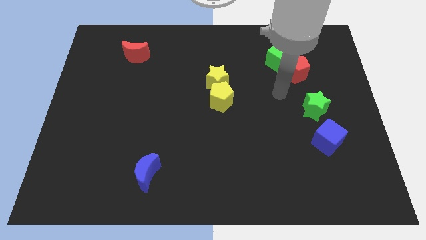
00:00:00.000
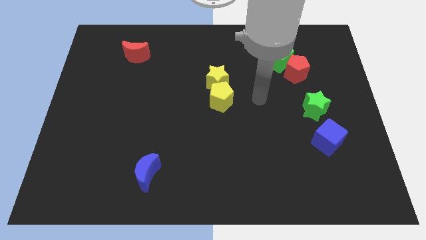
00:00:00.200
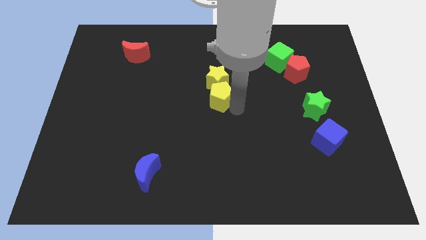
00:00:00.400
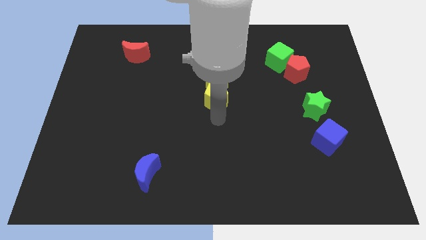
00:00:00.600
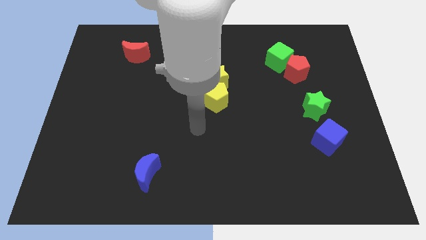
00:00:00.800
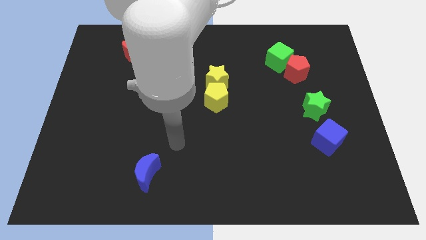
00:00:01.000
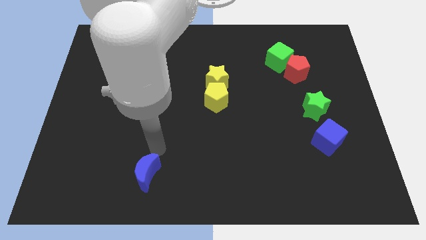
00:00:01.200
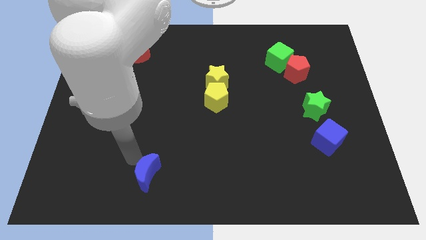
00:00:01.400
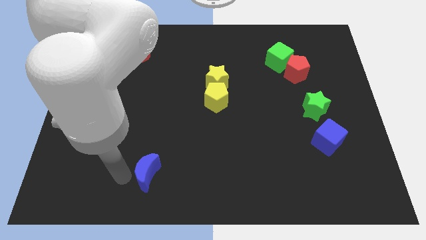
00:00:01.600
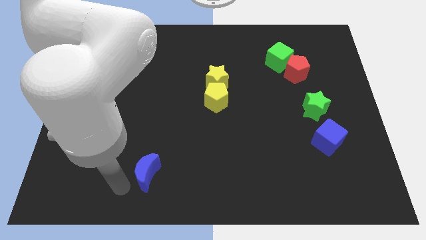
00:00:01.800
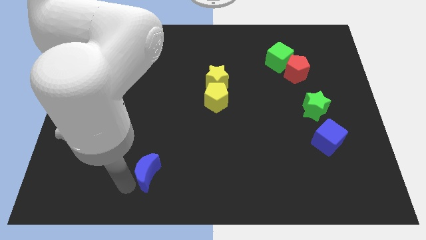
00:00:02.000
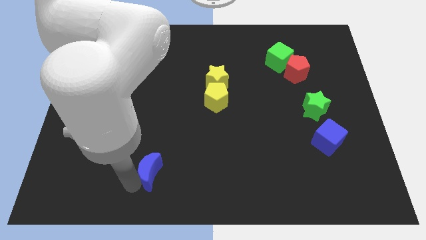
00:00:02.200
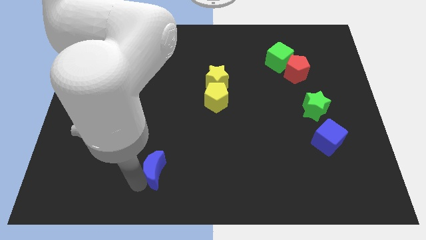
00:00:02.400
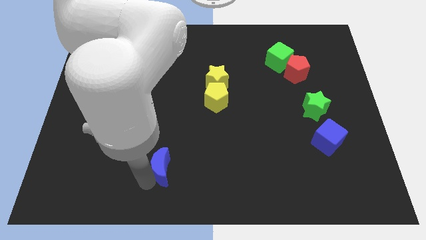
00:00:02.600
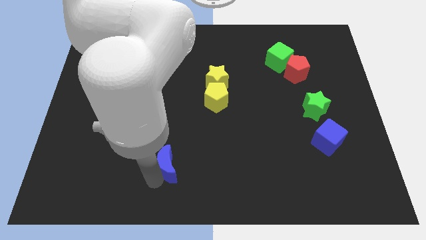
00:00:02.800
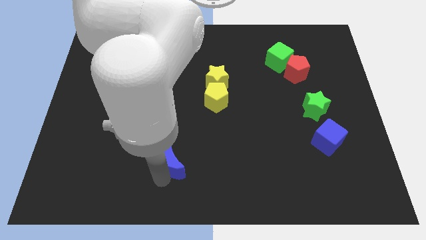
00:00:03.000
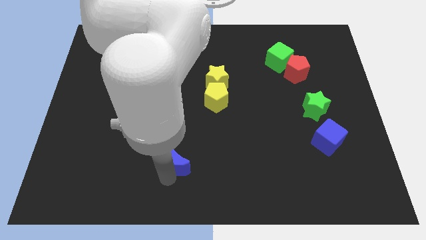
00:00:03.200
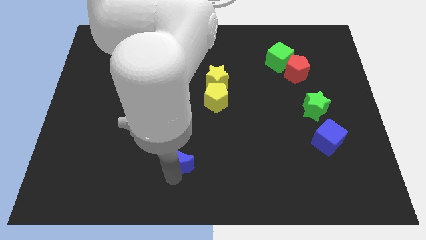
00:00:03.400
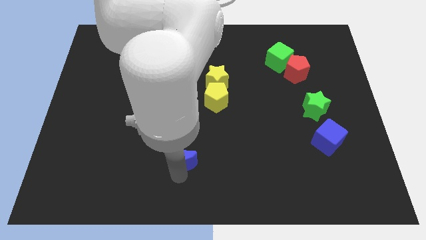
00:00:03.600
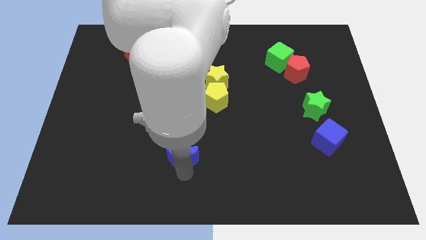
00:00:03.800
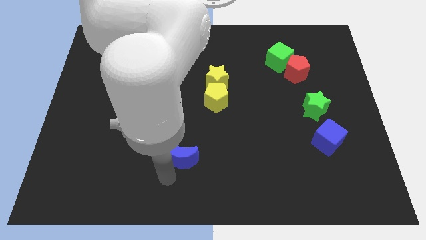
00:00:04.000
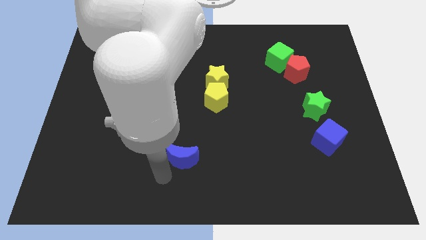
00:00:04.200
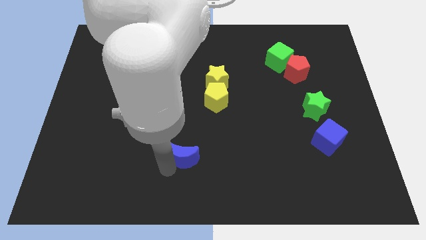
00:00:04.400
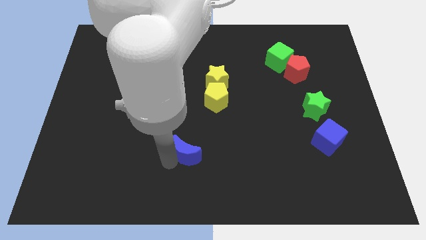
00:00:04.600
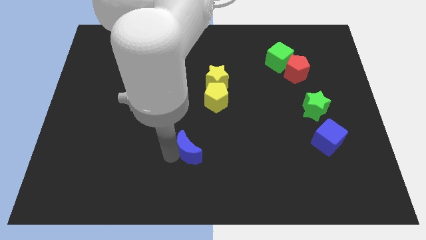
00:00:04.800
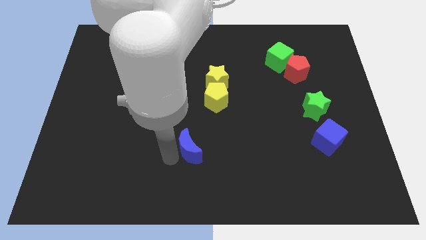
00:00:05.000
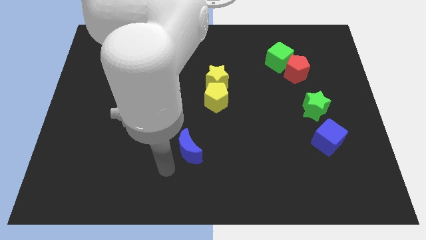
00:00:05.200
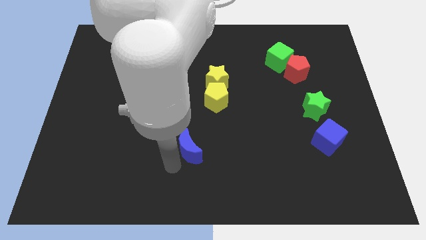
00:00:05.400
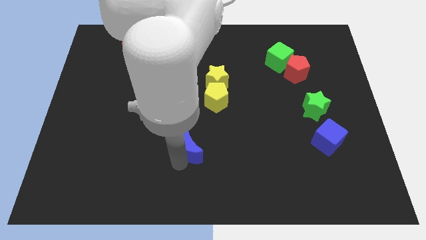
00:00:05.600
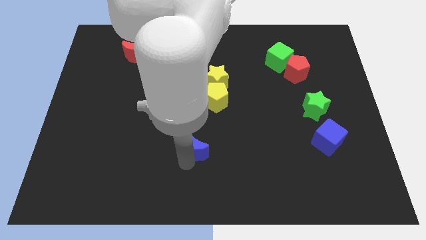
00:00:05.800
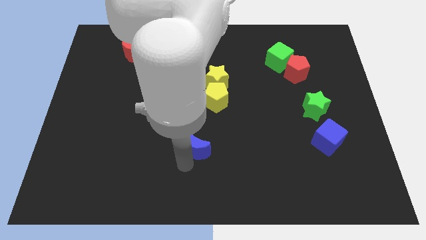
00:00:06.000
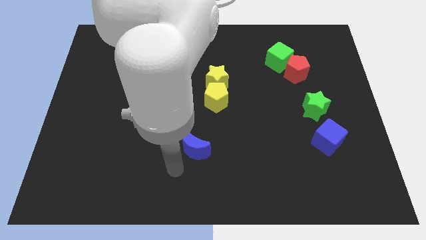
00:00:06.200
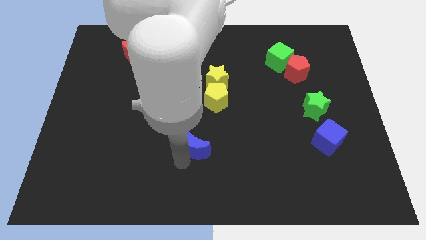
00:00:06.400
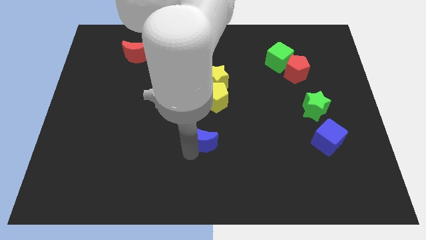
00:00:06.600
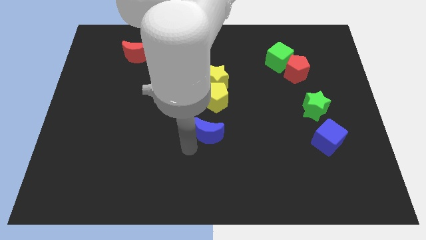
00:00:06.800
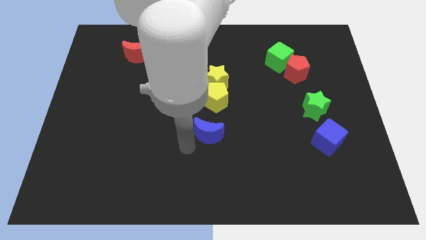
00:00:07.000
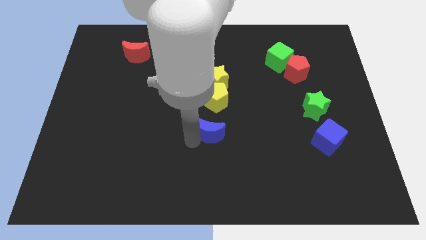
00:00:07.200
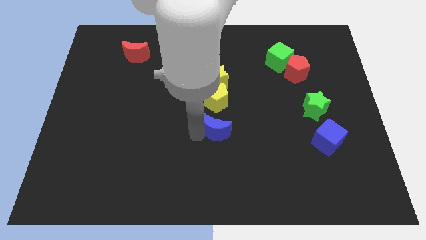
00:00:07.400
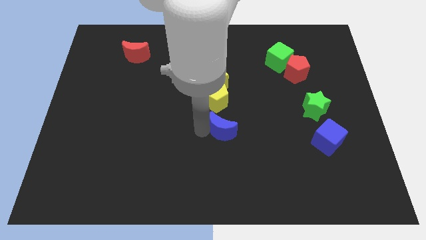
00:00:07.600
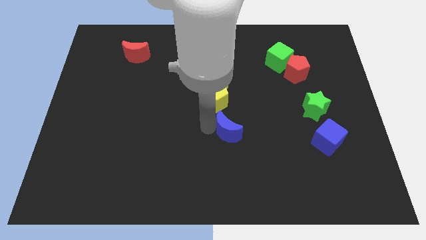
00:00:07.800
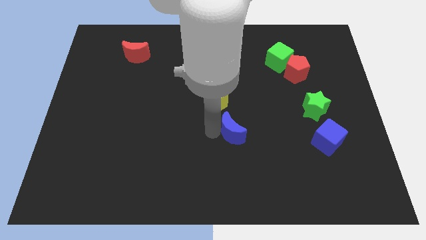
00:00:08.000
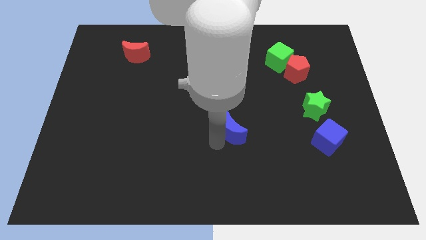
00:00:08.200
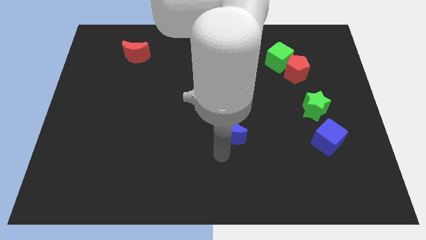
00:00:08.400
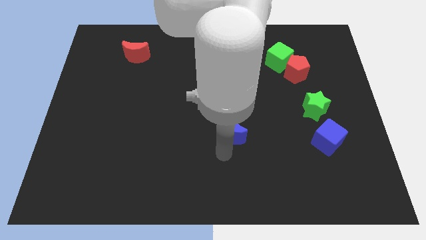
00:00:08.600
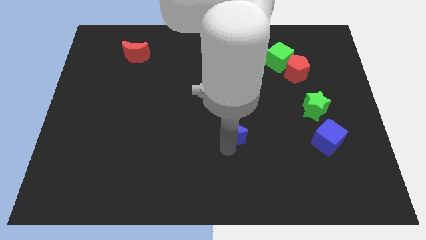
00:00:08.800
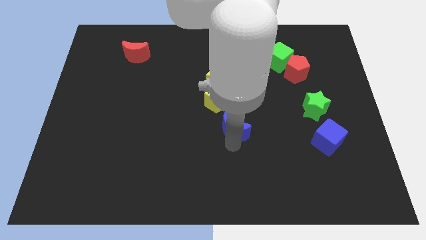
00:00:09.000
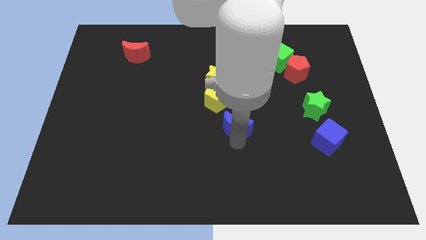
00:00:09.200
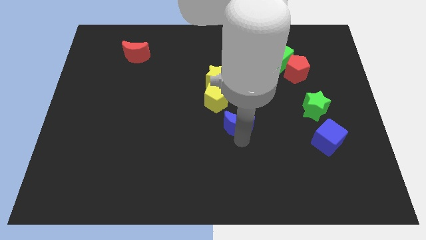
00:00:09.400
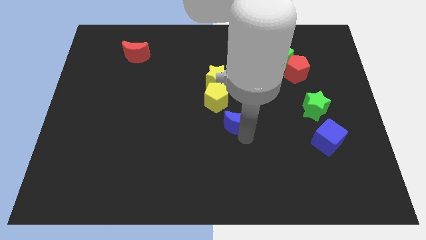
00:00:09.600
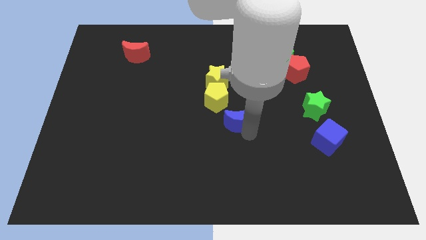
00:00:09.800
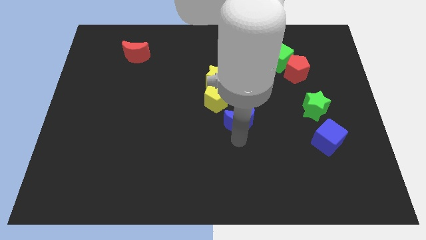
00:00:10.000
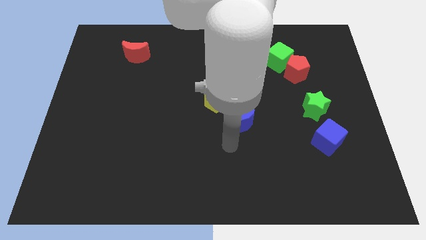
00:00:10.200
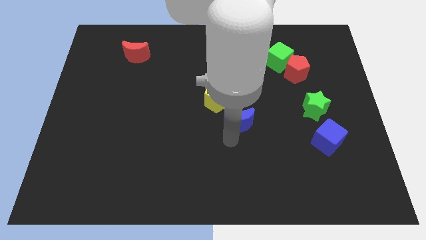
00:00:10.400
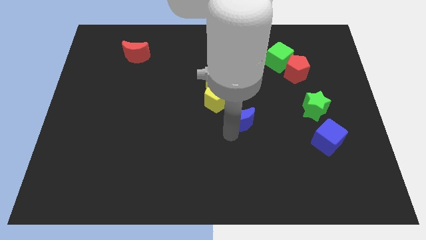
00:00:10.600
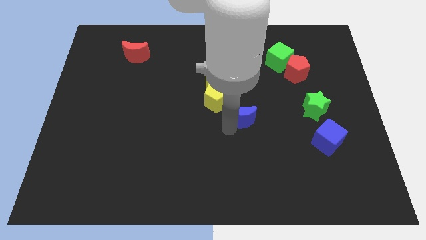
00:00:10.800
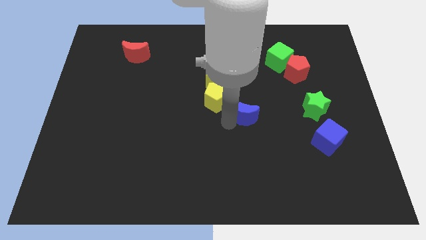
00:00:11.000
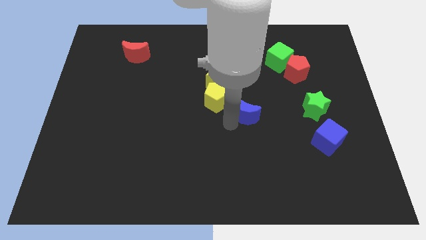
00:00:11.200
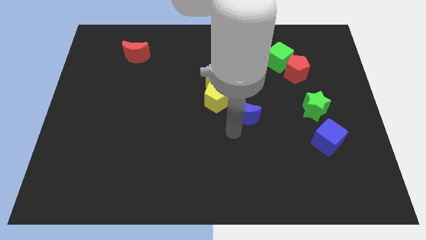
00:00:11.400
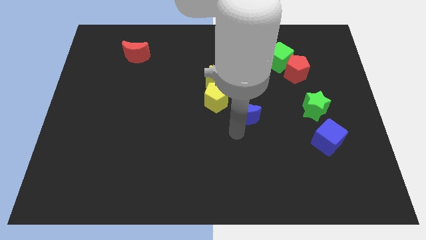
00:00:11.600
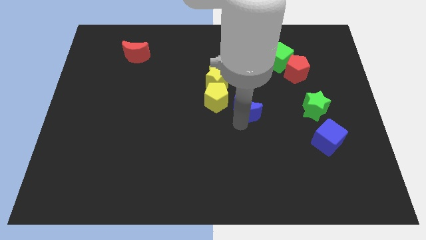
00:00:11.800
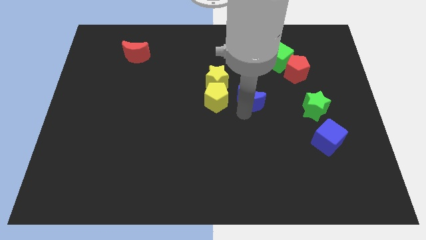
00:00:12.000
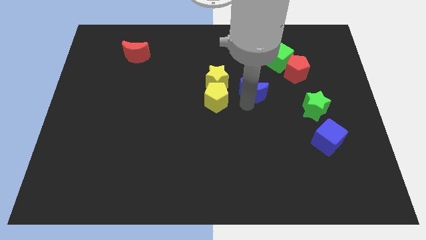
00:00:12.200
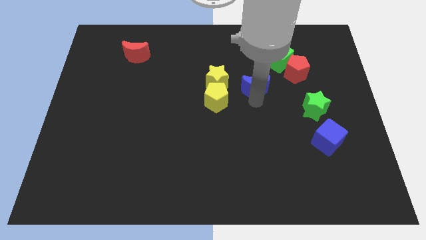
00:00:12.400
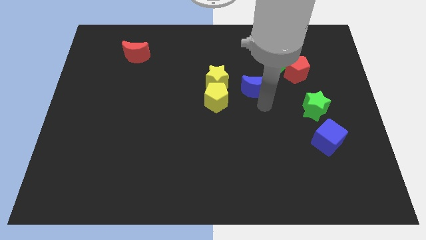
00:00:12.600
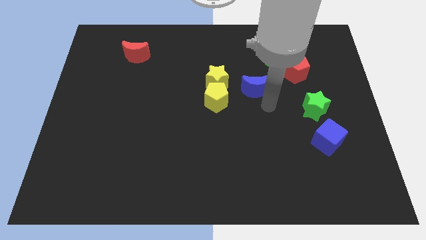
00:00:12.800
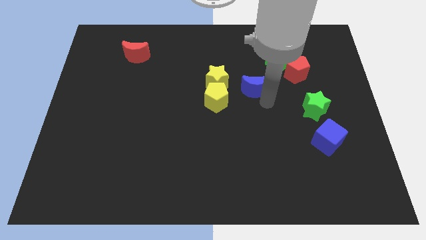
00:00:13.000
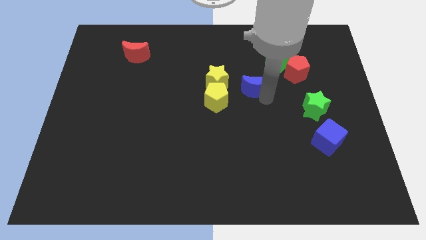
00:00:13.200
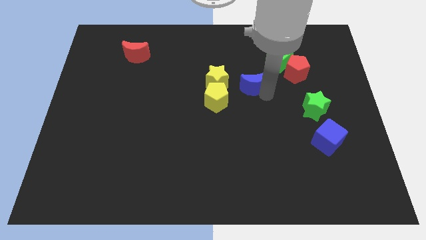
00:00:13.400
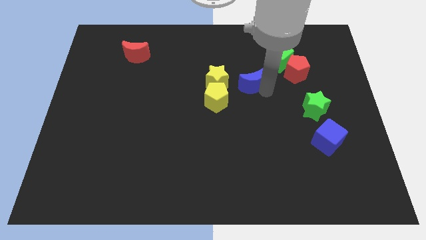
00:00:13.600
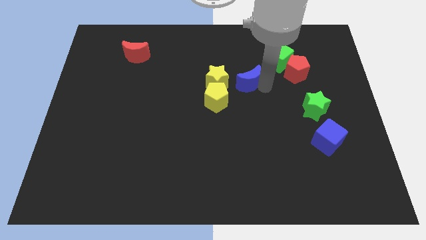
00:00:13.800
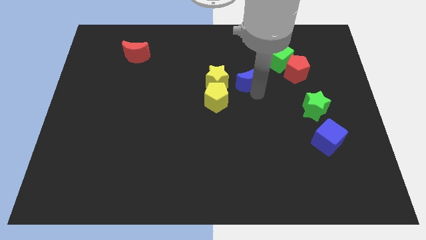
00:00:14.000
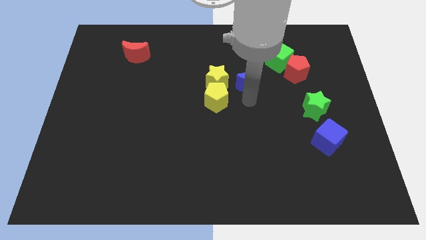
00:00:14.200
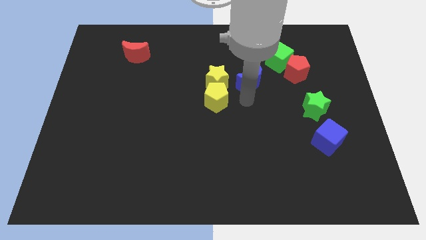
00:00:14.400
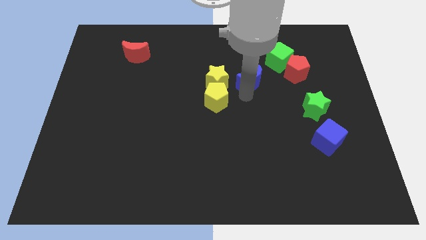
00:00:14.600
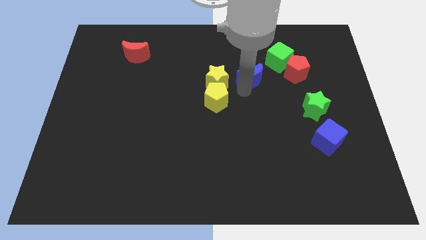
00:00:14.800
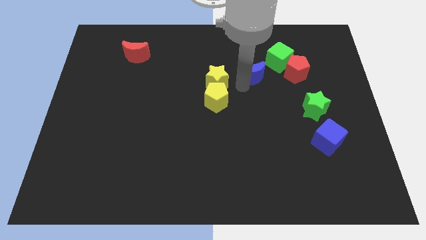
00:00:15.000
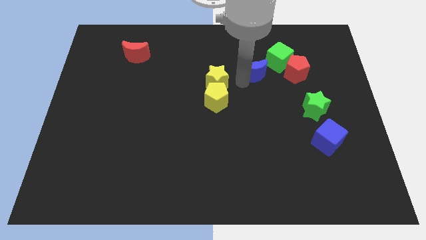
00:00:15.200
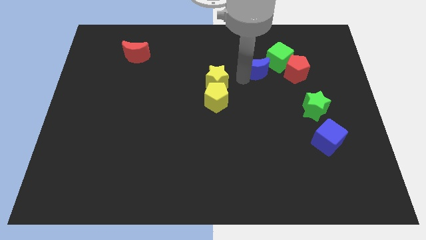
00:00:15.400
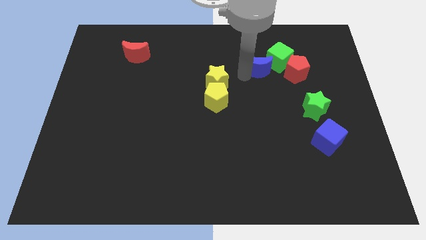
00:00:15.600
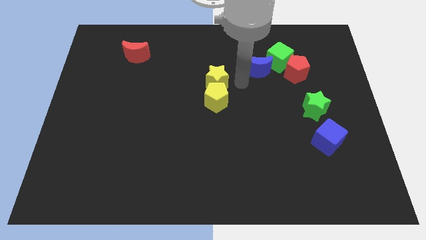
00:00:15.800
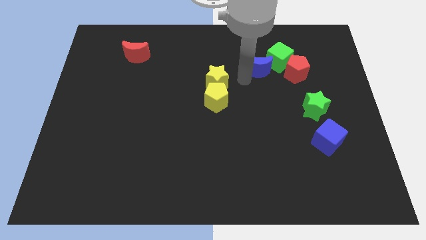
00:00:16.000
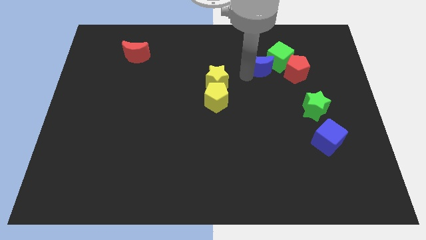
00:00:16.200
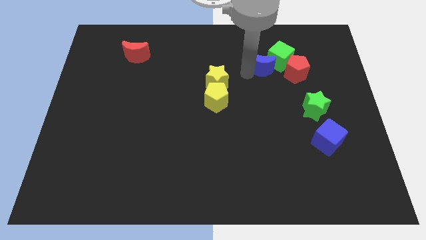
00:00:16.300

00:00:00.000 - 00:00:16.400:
put the blue moon to the top left of the red pentagon
